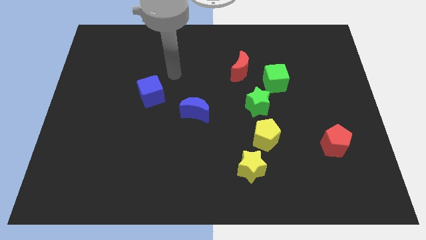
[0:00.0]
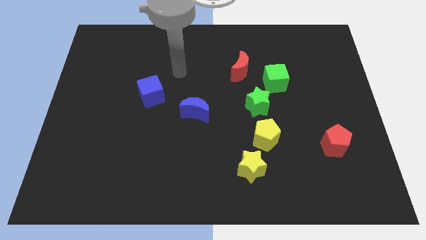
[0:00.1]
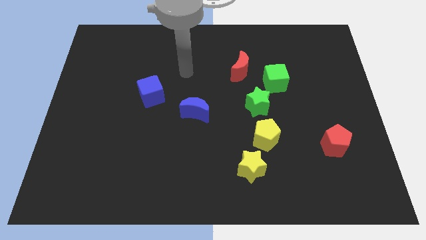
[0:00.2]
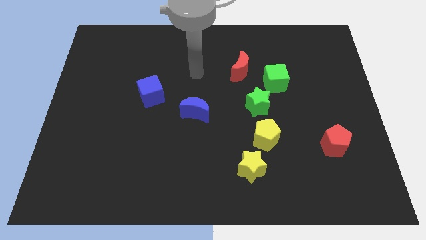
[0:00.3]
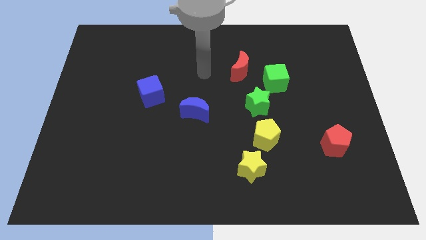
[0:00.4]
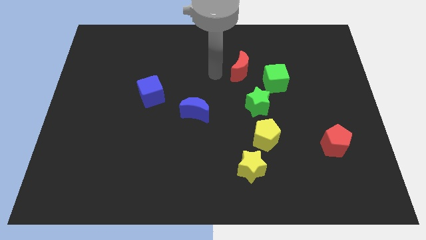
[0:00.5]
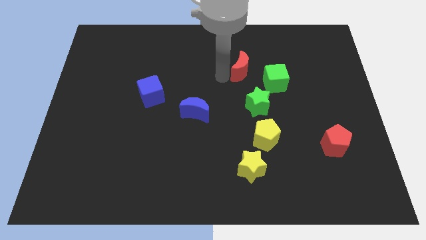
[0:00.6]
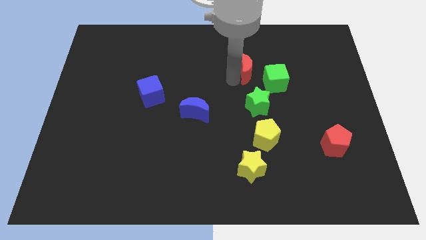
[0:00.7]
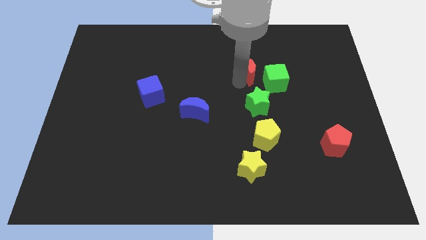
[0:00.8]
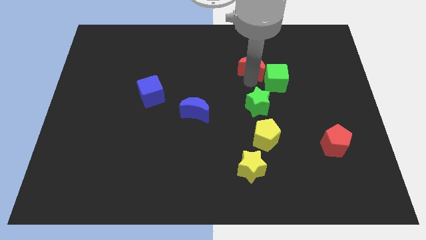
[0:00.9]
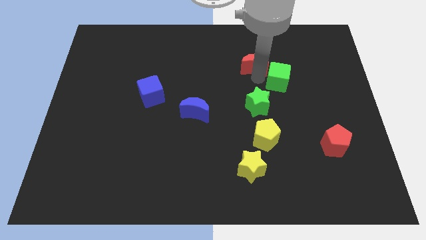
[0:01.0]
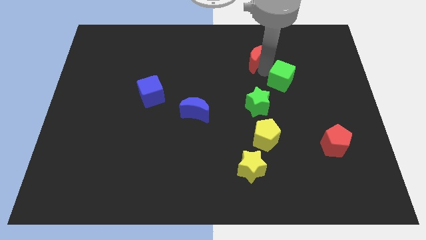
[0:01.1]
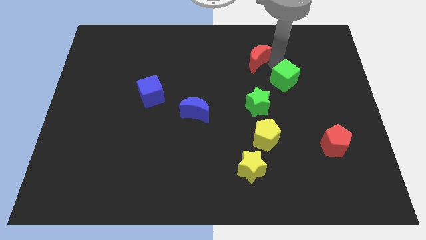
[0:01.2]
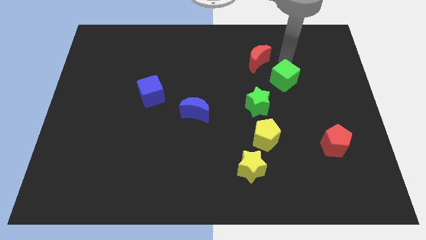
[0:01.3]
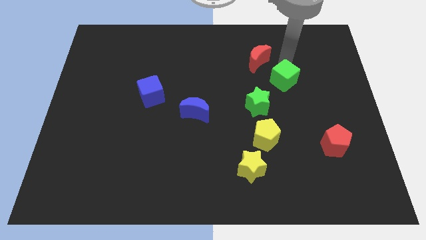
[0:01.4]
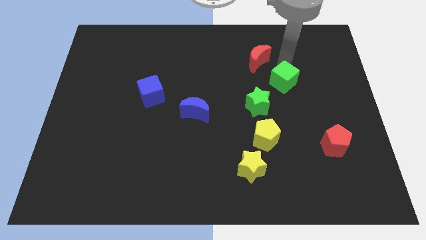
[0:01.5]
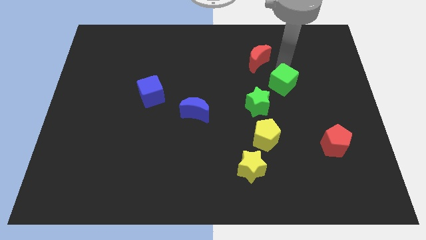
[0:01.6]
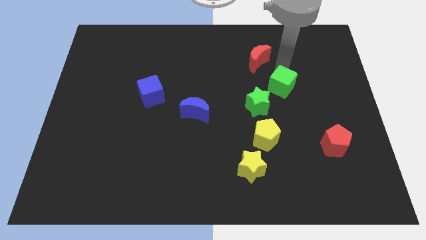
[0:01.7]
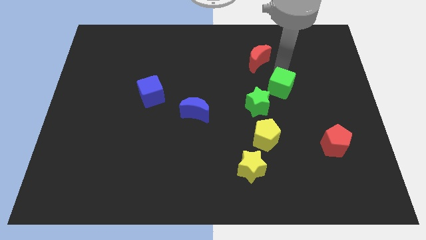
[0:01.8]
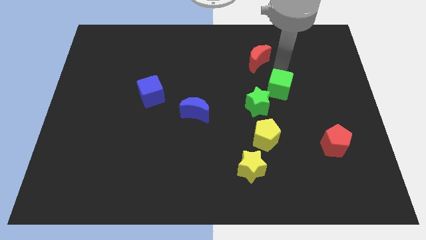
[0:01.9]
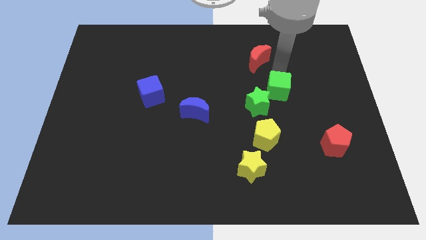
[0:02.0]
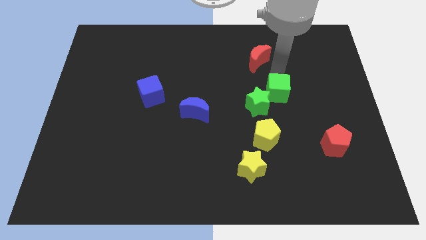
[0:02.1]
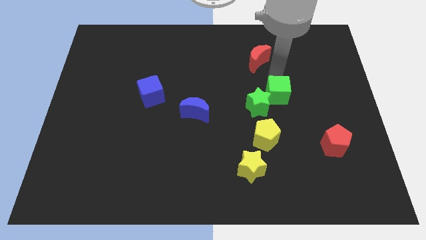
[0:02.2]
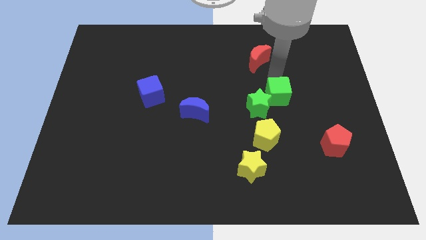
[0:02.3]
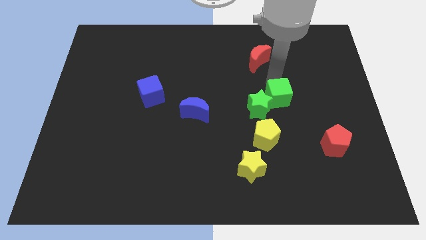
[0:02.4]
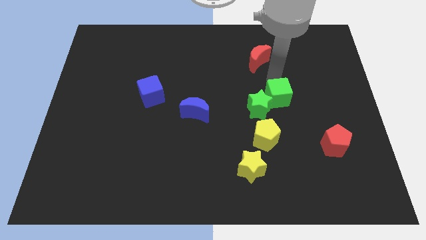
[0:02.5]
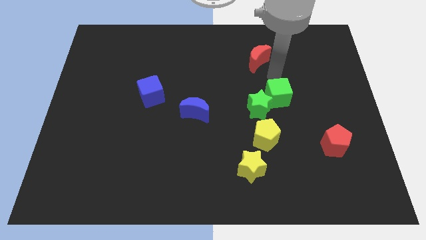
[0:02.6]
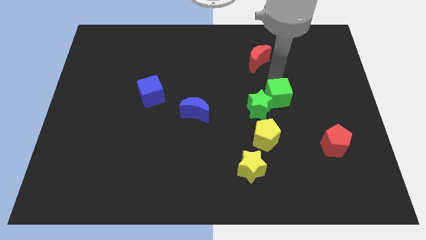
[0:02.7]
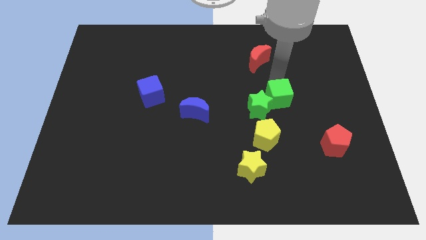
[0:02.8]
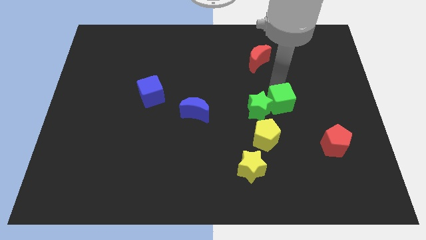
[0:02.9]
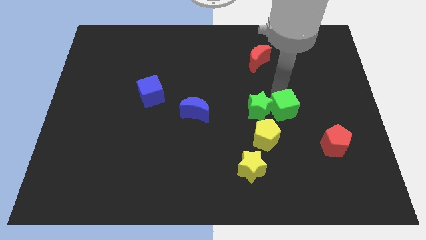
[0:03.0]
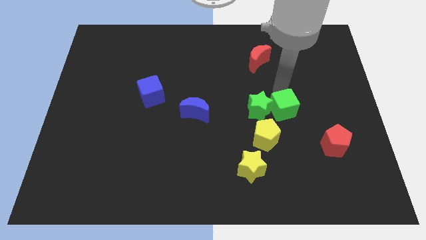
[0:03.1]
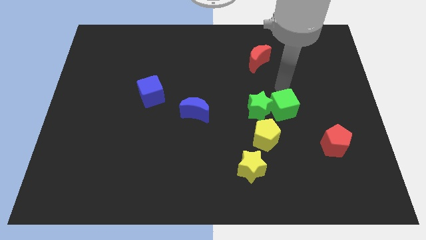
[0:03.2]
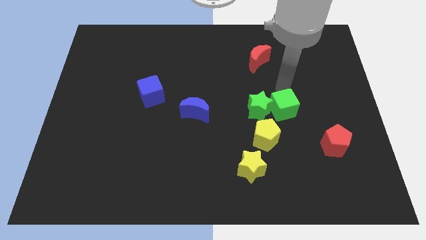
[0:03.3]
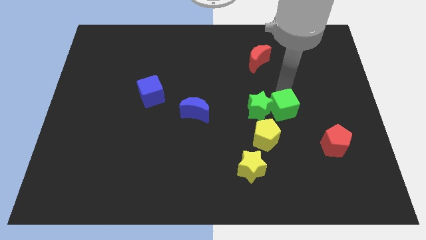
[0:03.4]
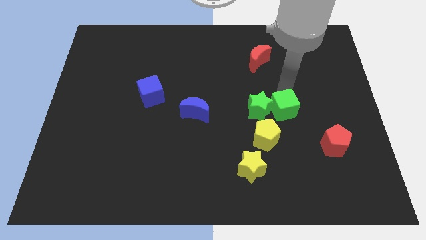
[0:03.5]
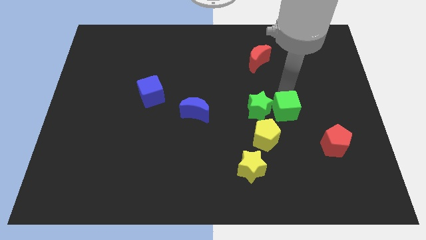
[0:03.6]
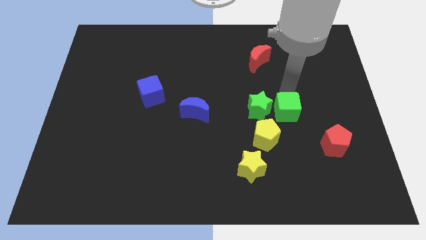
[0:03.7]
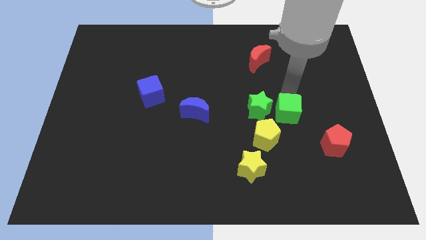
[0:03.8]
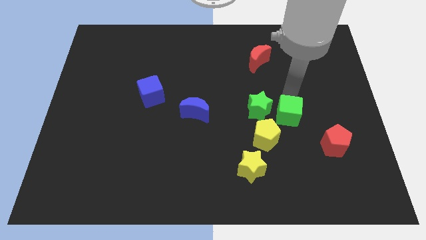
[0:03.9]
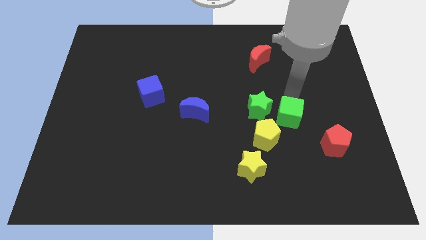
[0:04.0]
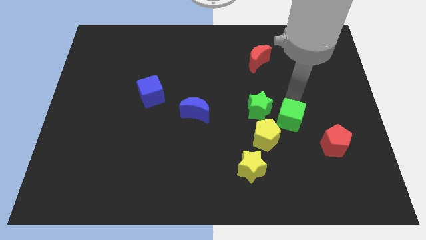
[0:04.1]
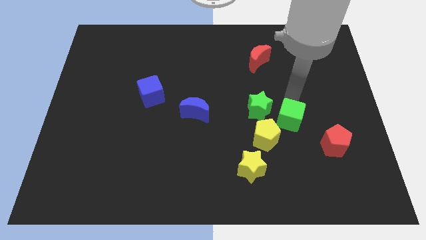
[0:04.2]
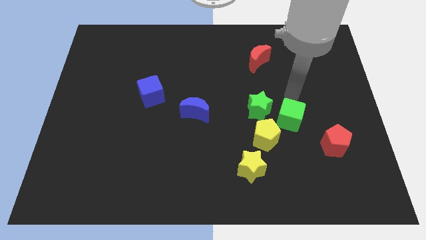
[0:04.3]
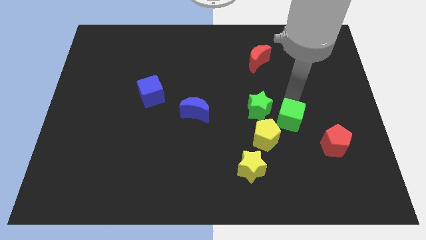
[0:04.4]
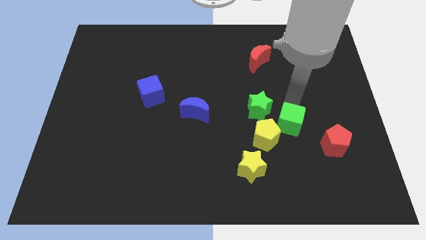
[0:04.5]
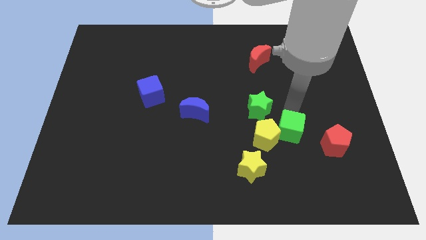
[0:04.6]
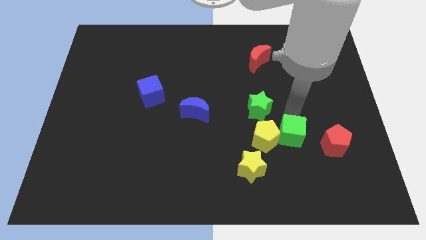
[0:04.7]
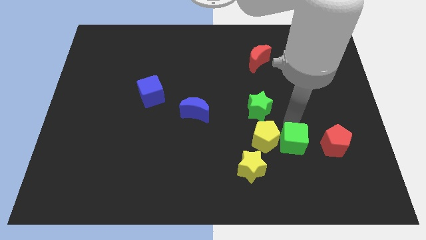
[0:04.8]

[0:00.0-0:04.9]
slide the green cube to the bottom right side of the yellow pentagon

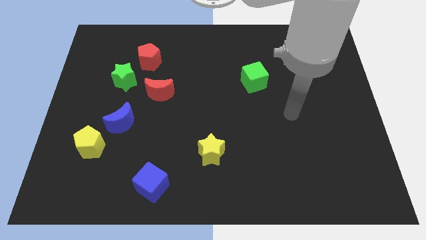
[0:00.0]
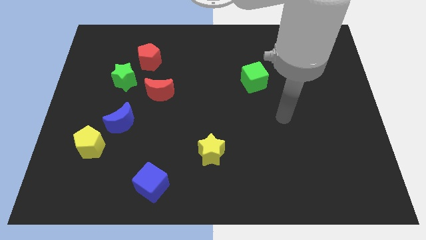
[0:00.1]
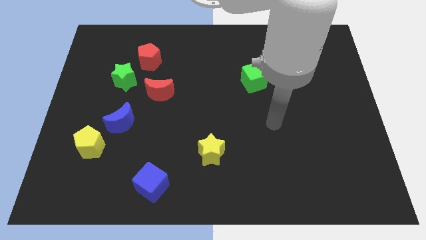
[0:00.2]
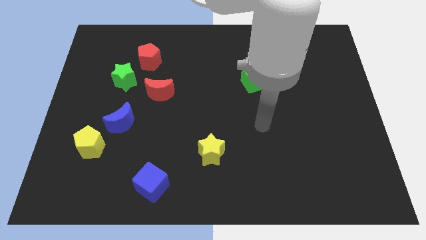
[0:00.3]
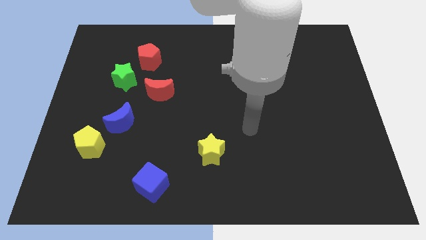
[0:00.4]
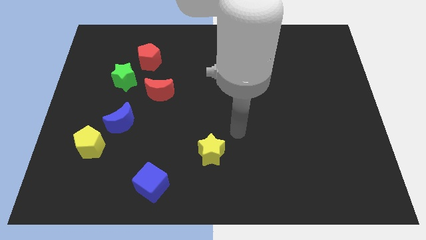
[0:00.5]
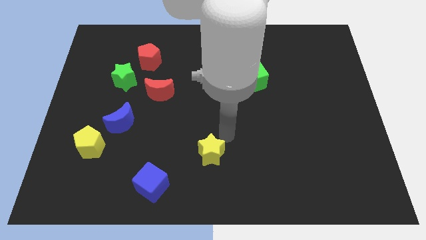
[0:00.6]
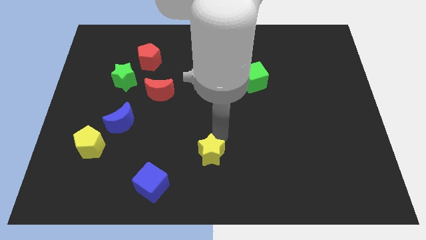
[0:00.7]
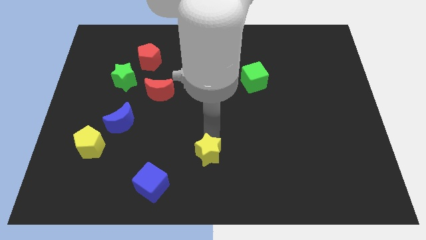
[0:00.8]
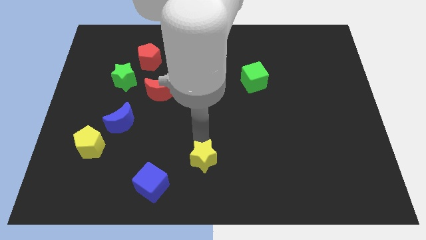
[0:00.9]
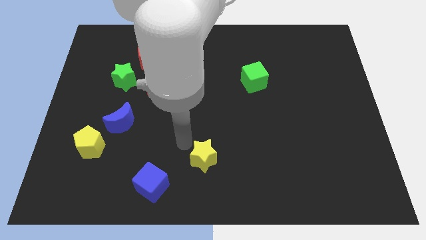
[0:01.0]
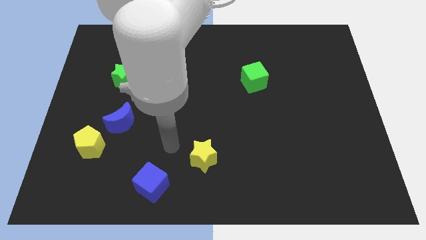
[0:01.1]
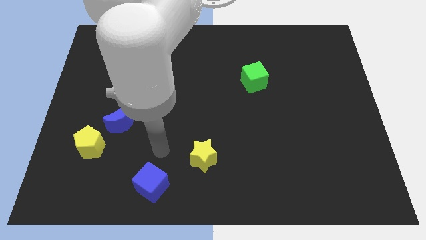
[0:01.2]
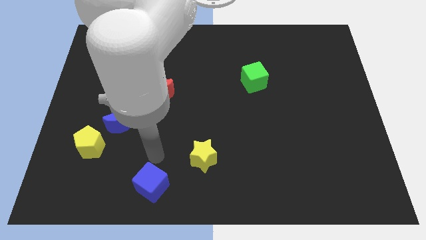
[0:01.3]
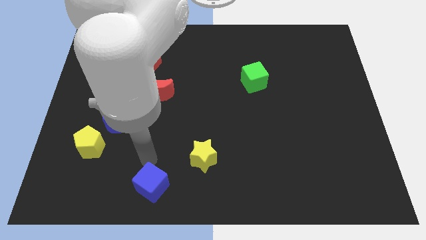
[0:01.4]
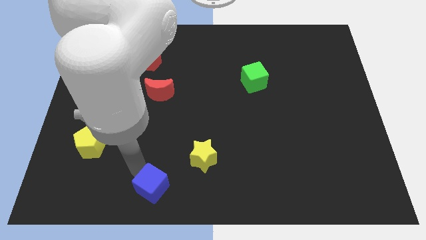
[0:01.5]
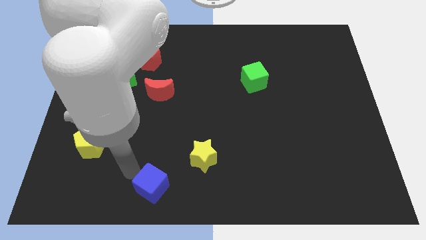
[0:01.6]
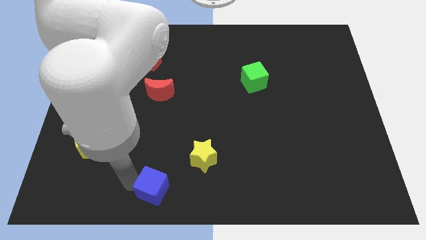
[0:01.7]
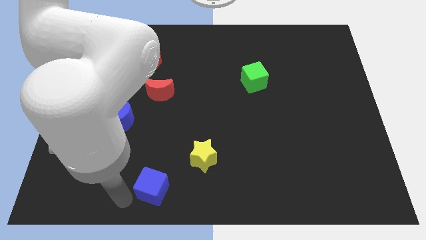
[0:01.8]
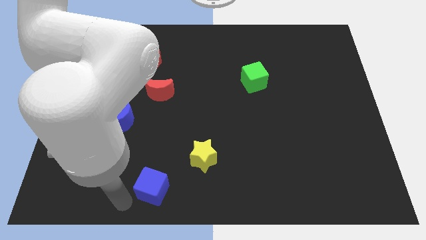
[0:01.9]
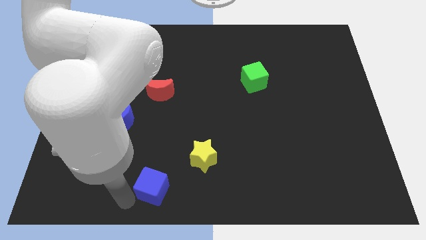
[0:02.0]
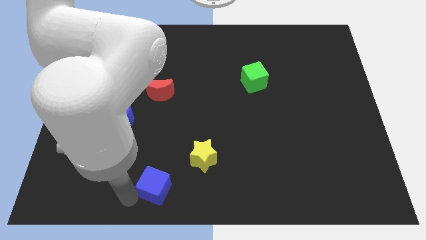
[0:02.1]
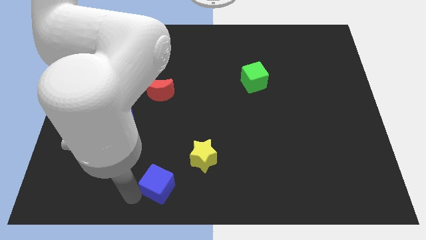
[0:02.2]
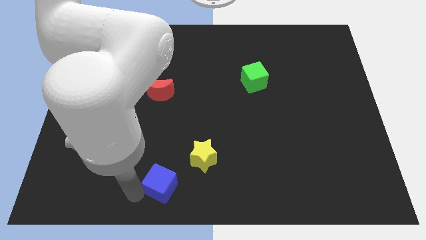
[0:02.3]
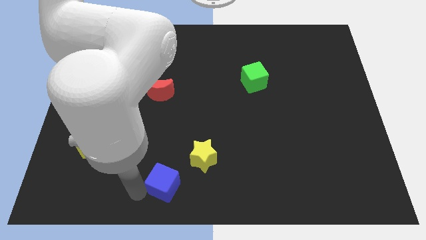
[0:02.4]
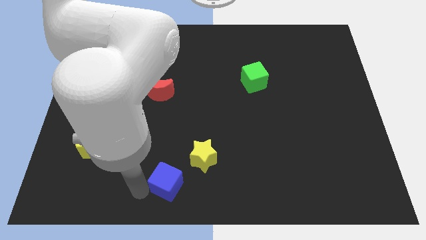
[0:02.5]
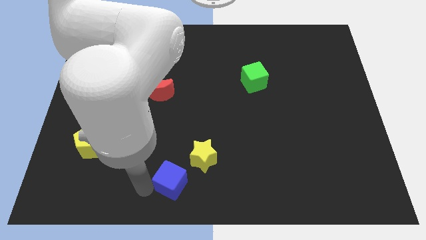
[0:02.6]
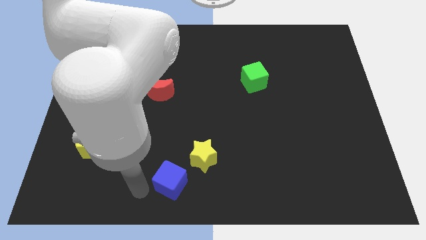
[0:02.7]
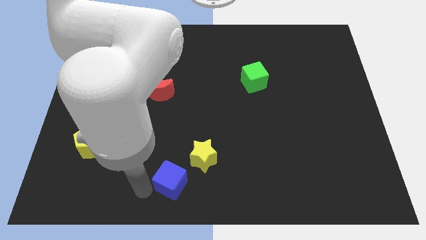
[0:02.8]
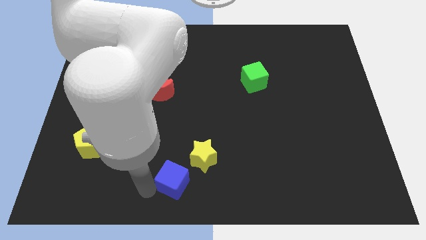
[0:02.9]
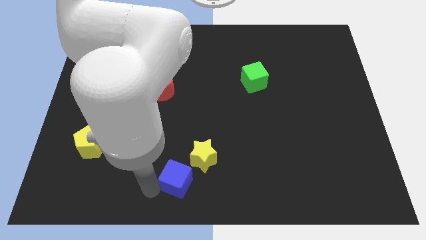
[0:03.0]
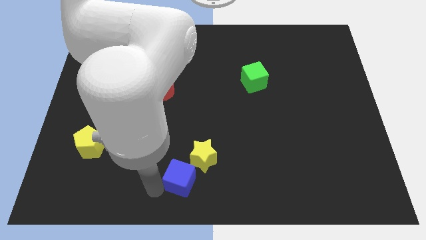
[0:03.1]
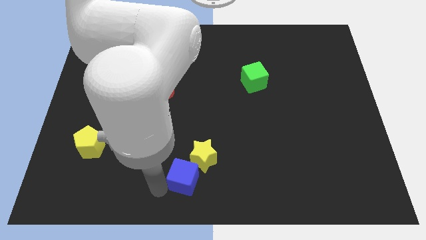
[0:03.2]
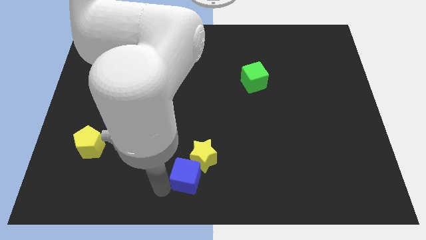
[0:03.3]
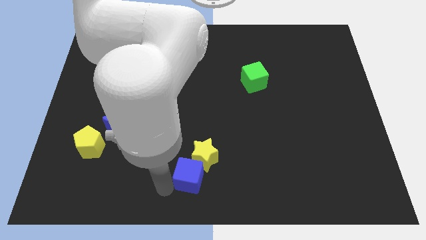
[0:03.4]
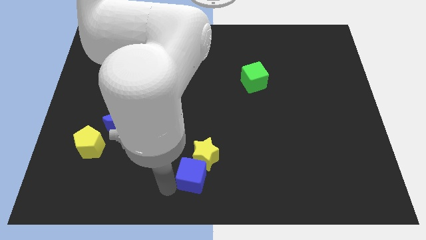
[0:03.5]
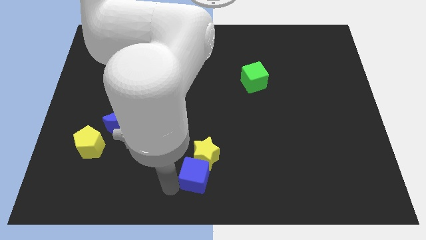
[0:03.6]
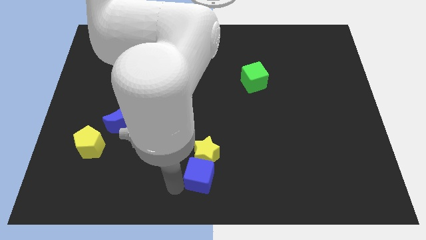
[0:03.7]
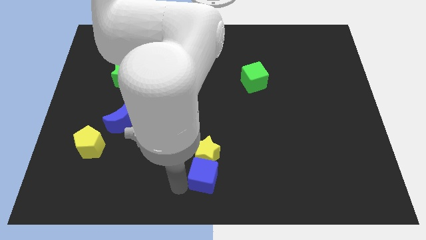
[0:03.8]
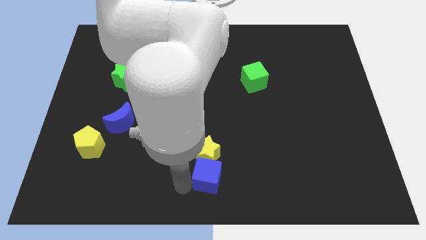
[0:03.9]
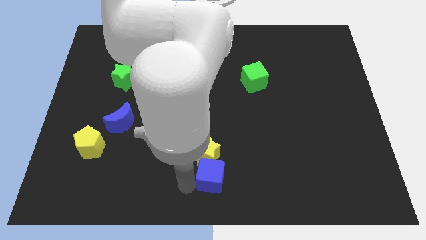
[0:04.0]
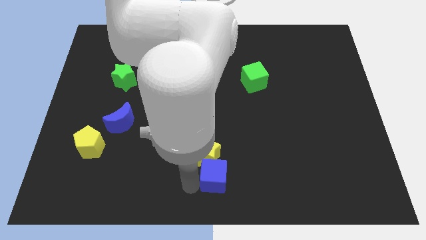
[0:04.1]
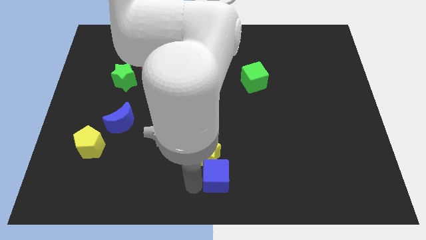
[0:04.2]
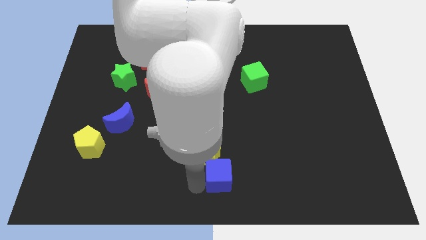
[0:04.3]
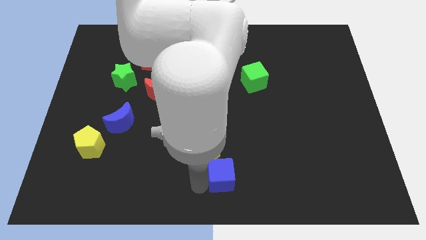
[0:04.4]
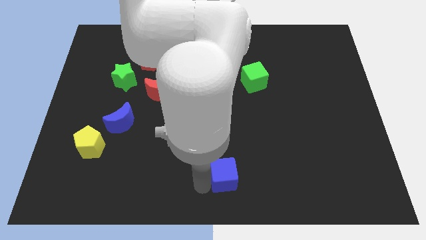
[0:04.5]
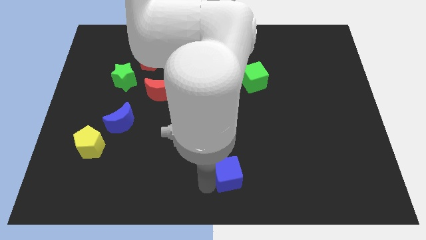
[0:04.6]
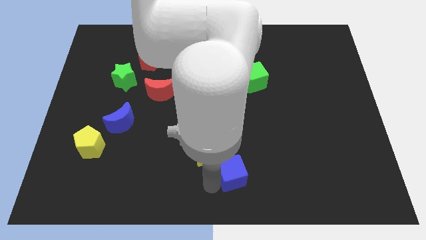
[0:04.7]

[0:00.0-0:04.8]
move the blue cube to the right of the yellow star
